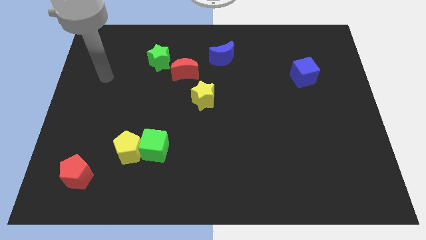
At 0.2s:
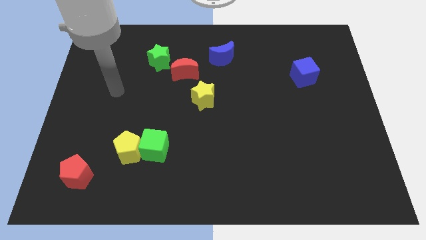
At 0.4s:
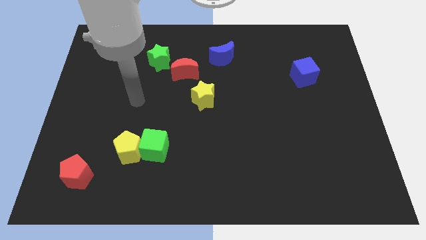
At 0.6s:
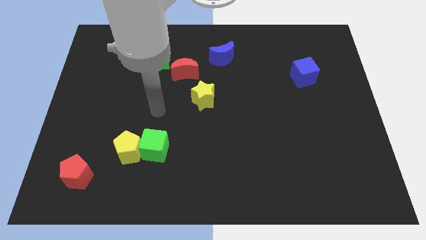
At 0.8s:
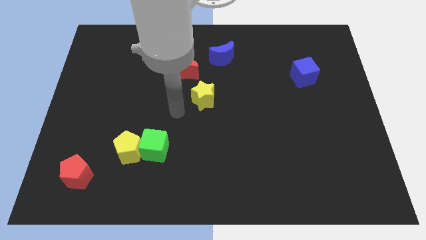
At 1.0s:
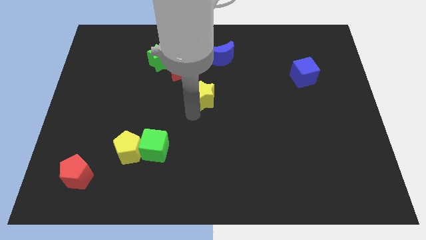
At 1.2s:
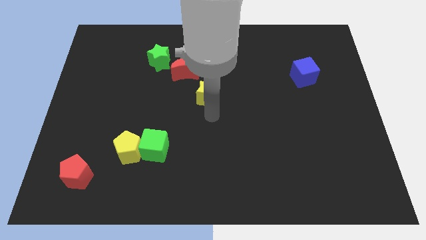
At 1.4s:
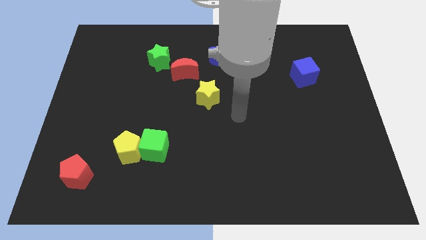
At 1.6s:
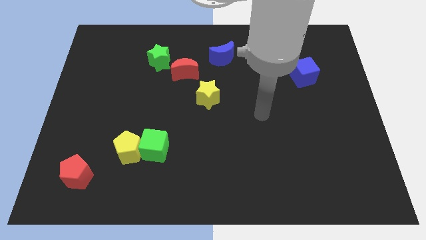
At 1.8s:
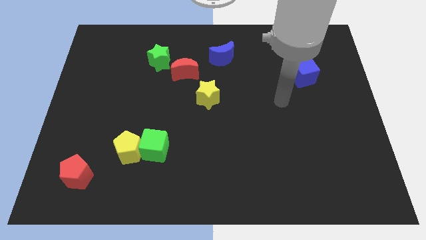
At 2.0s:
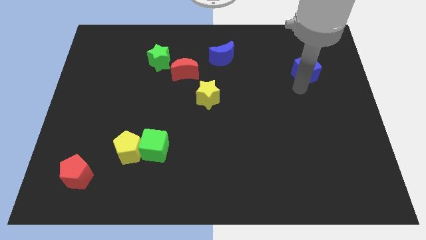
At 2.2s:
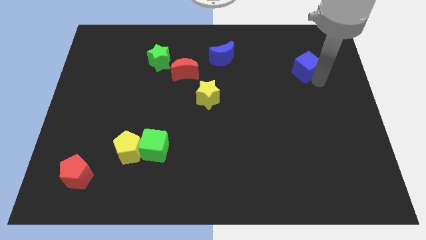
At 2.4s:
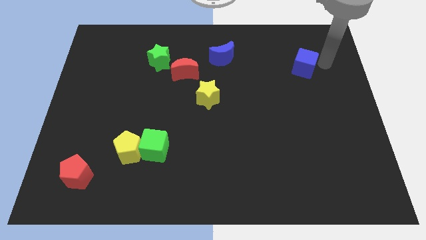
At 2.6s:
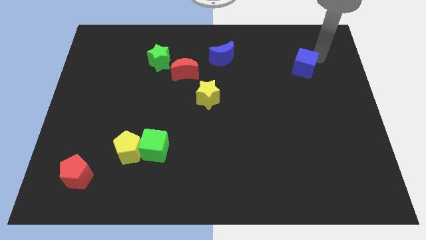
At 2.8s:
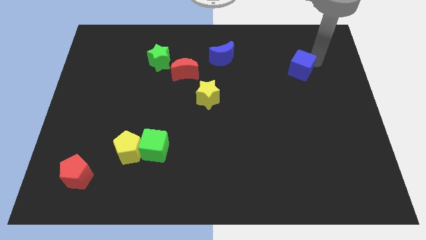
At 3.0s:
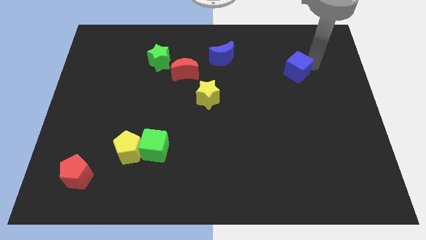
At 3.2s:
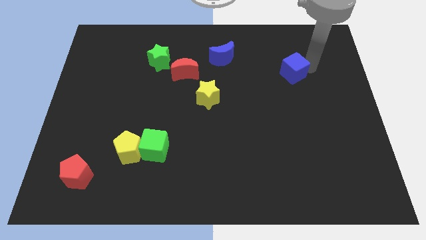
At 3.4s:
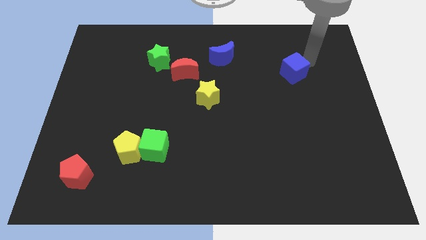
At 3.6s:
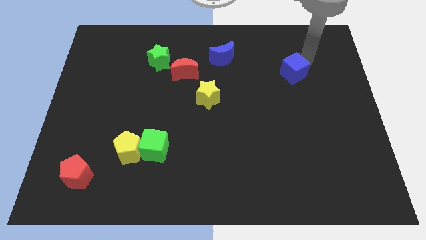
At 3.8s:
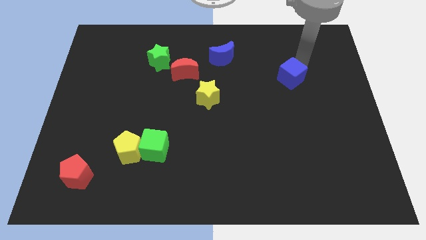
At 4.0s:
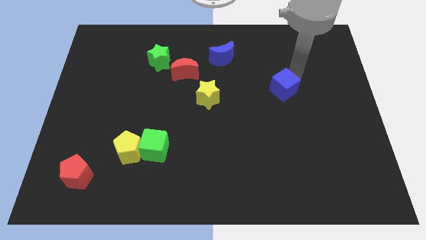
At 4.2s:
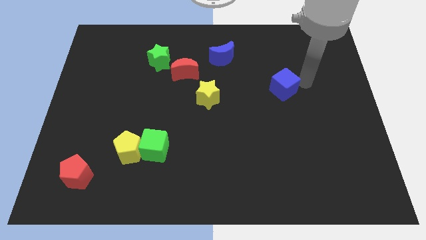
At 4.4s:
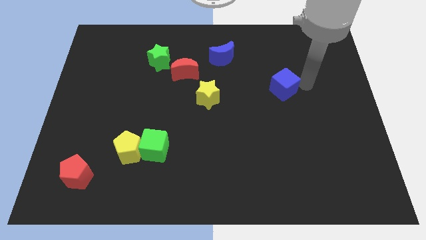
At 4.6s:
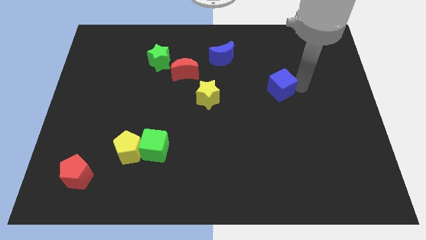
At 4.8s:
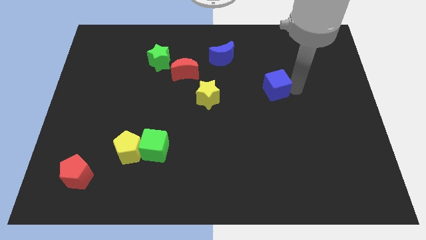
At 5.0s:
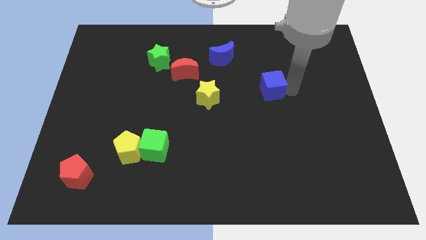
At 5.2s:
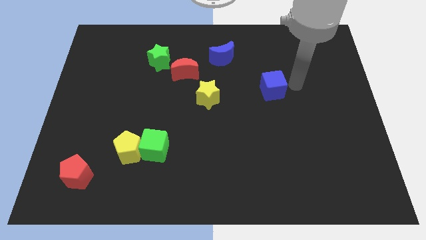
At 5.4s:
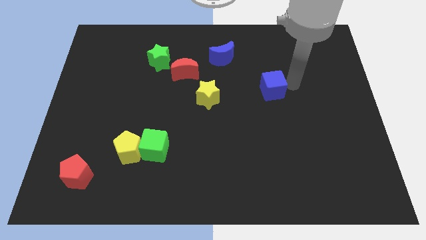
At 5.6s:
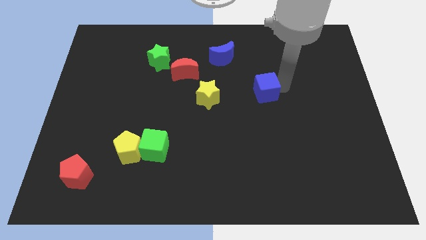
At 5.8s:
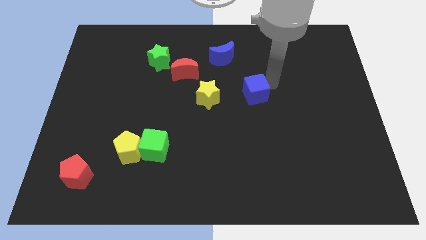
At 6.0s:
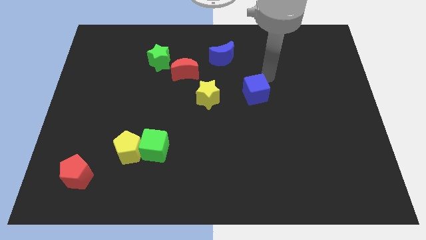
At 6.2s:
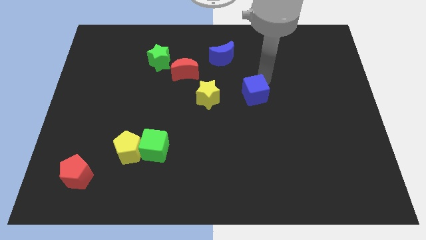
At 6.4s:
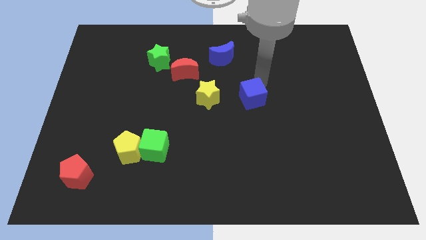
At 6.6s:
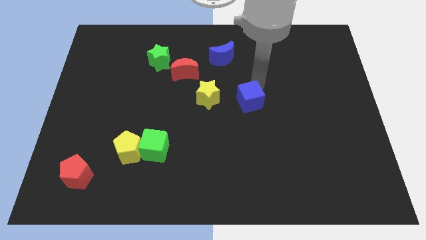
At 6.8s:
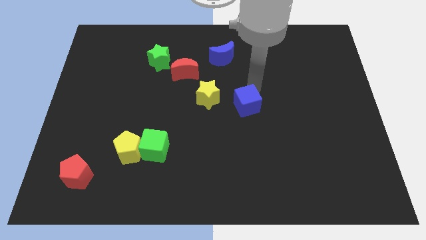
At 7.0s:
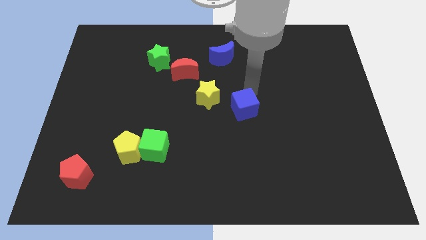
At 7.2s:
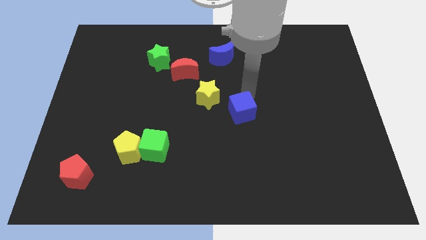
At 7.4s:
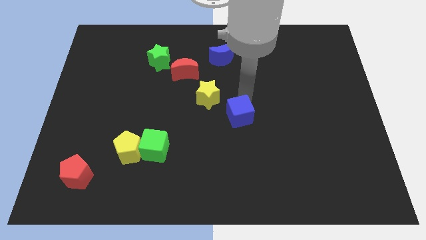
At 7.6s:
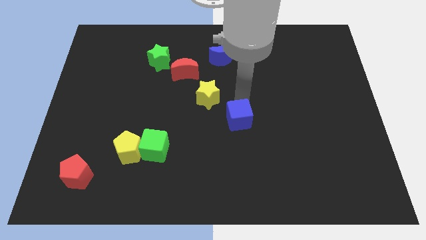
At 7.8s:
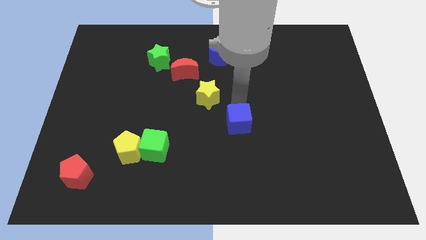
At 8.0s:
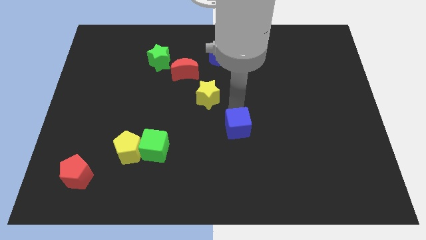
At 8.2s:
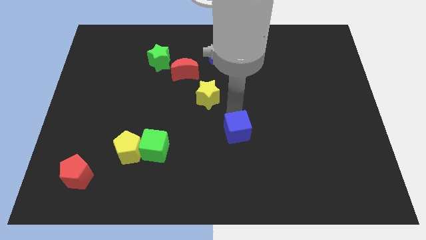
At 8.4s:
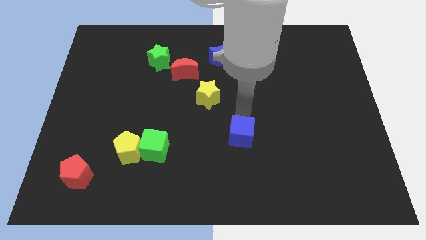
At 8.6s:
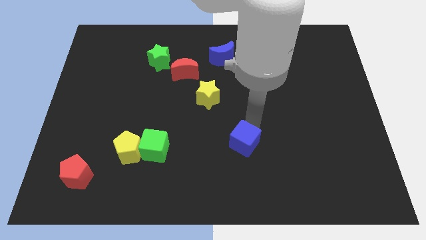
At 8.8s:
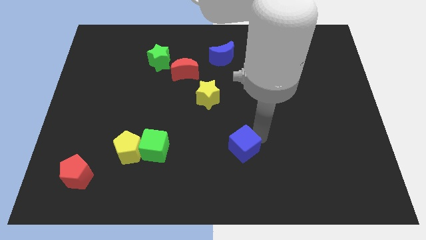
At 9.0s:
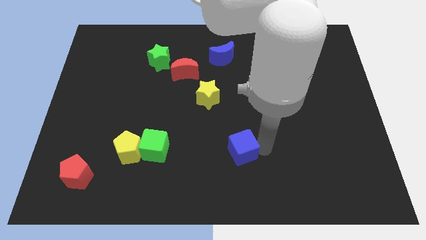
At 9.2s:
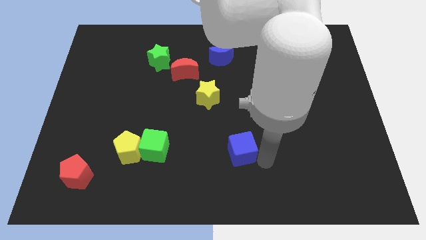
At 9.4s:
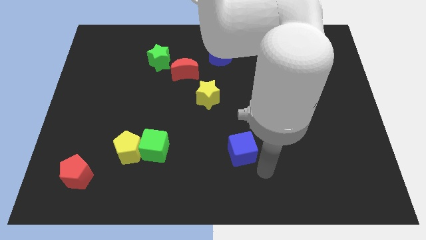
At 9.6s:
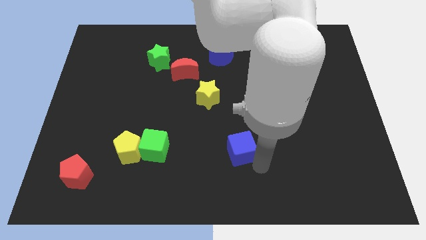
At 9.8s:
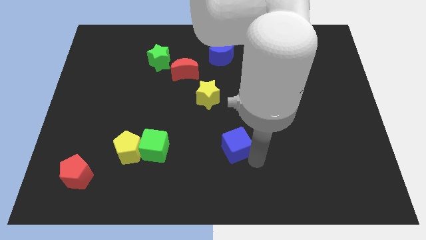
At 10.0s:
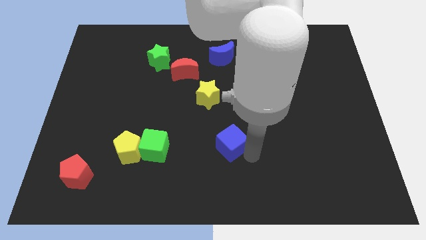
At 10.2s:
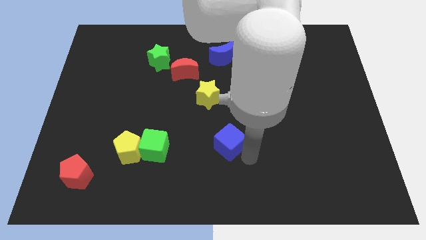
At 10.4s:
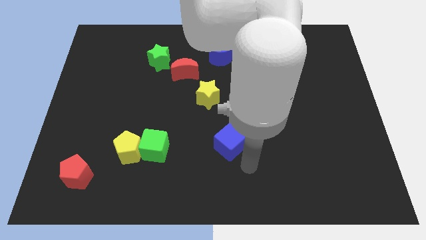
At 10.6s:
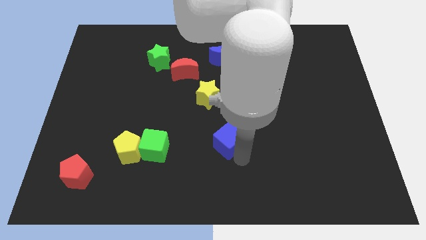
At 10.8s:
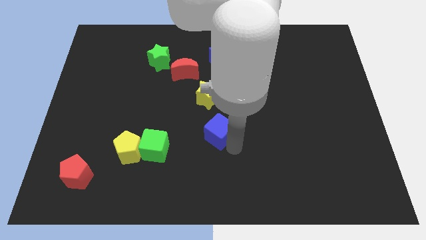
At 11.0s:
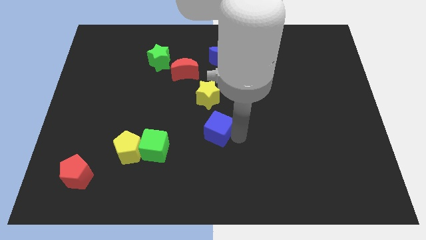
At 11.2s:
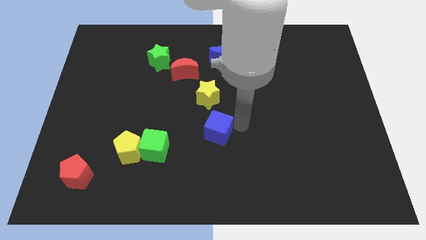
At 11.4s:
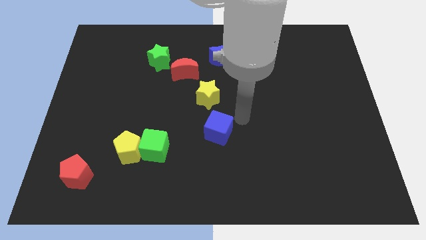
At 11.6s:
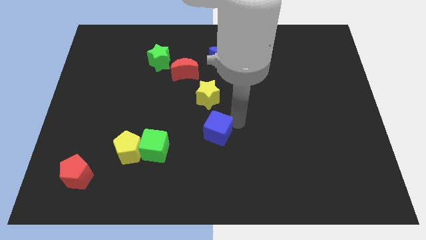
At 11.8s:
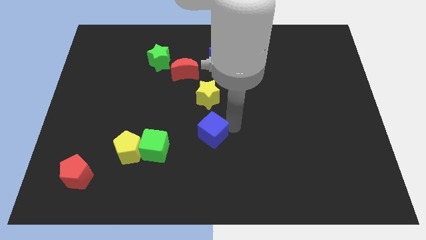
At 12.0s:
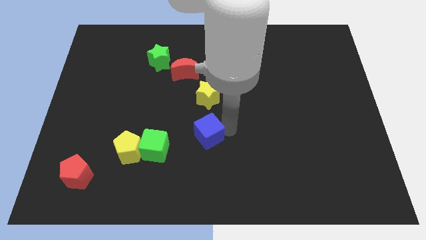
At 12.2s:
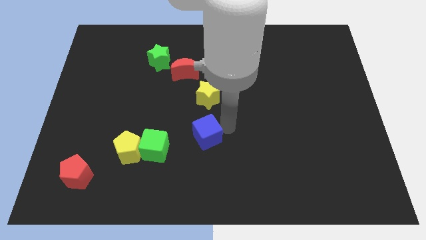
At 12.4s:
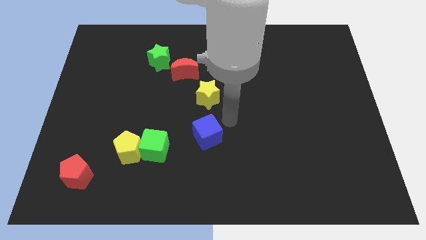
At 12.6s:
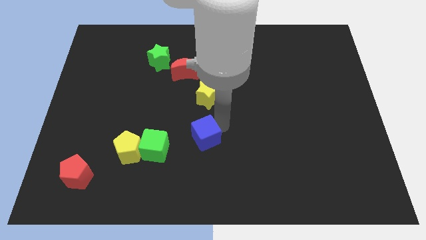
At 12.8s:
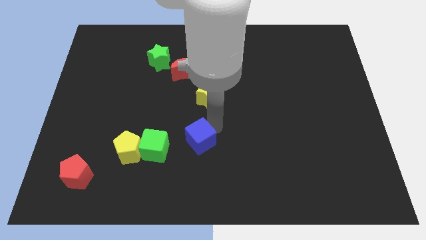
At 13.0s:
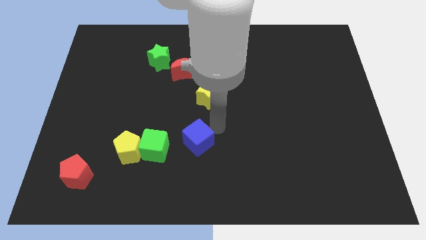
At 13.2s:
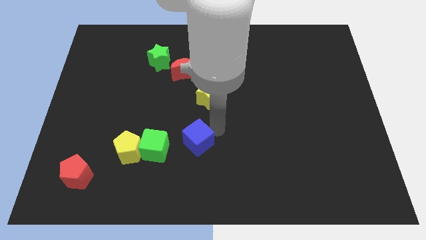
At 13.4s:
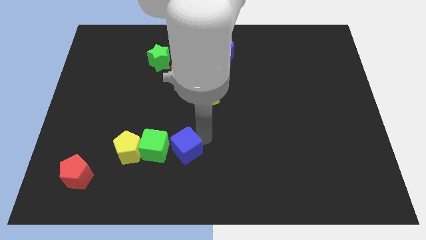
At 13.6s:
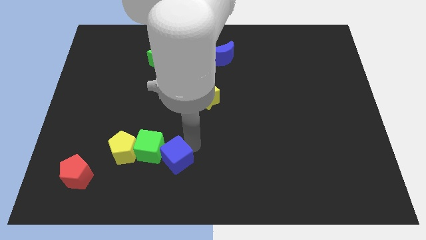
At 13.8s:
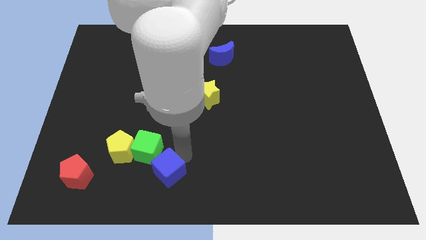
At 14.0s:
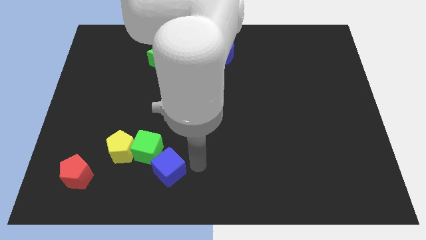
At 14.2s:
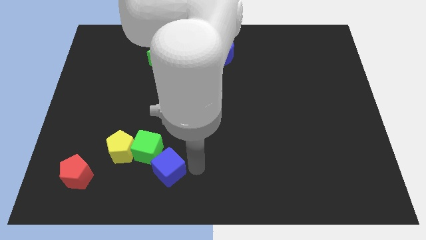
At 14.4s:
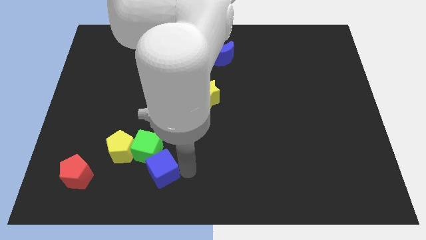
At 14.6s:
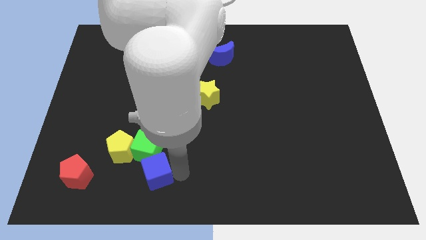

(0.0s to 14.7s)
move the blue cube right of the red pentagon

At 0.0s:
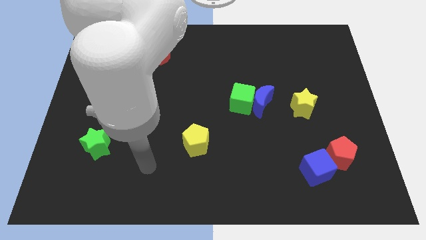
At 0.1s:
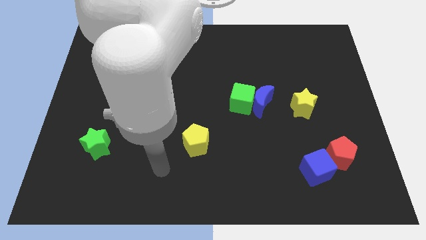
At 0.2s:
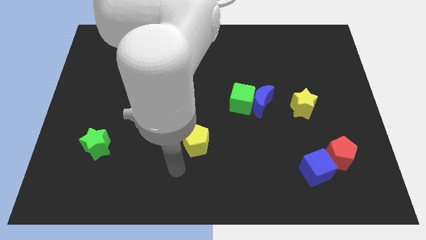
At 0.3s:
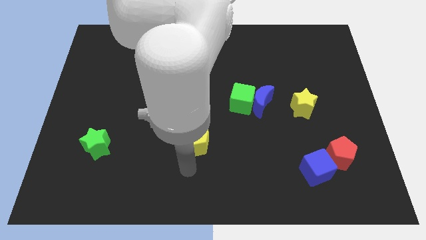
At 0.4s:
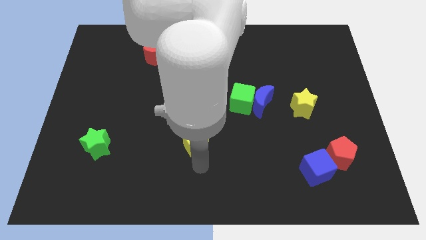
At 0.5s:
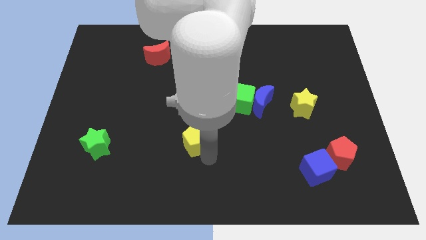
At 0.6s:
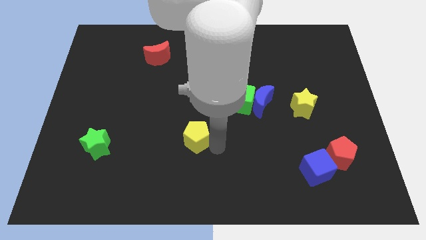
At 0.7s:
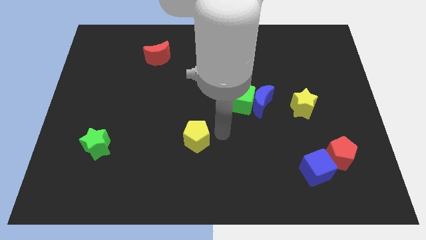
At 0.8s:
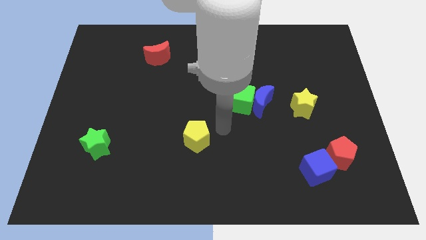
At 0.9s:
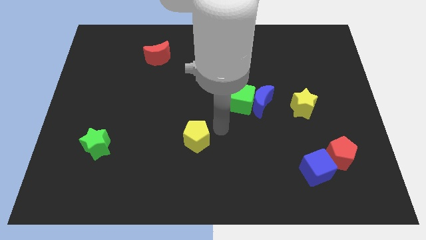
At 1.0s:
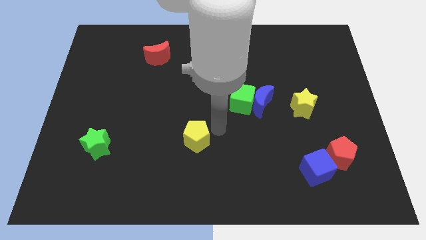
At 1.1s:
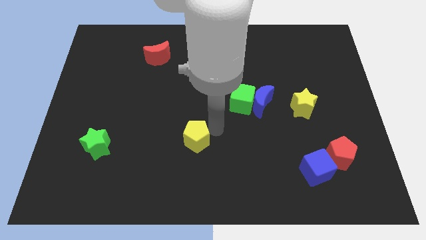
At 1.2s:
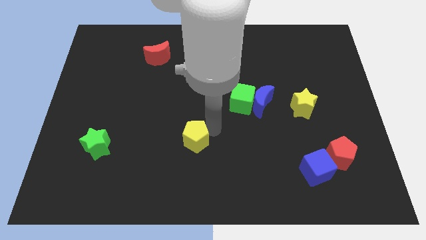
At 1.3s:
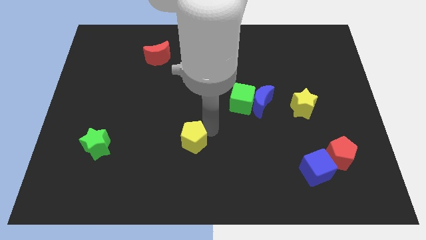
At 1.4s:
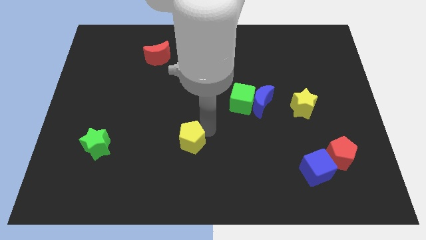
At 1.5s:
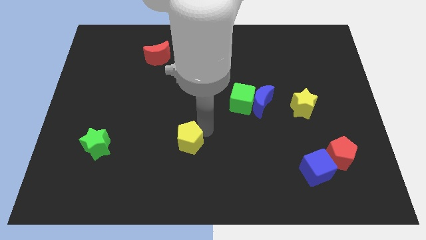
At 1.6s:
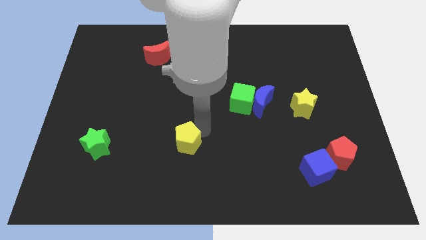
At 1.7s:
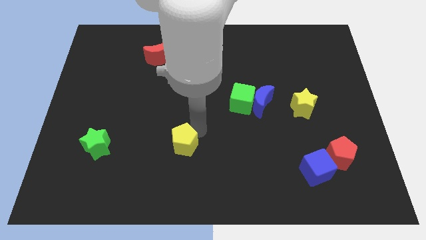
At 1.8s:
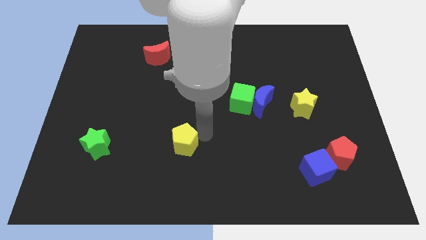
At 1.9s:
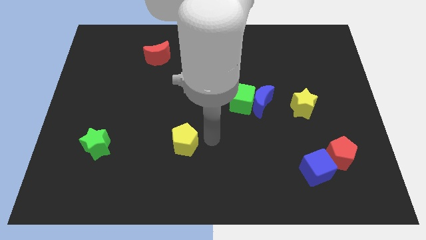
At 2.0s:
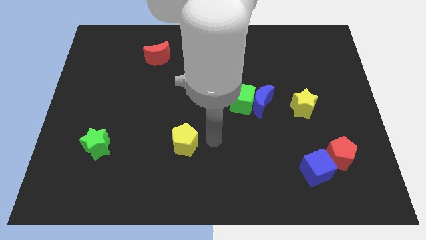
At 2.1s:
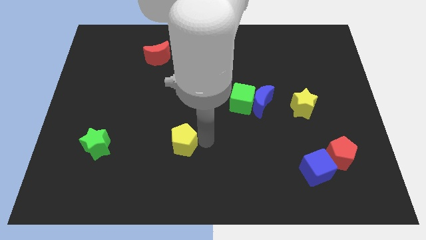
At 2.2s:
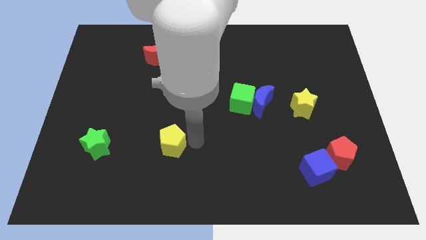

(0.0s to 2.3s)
put the yellow pentagon just right of the green star
